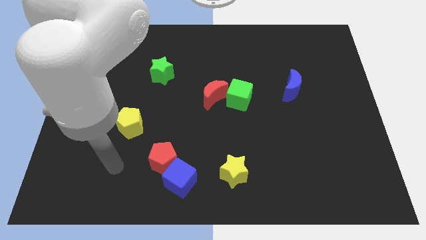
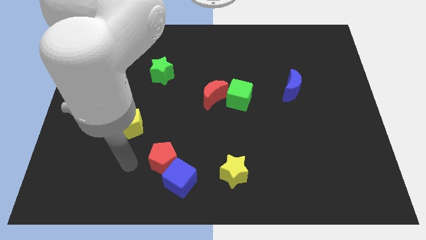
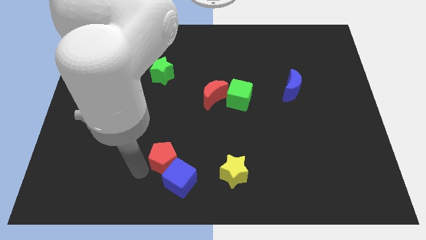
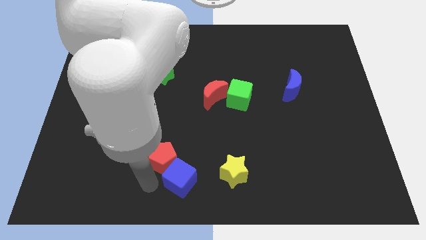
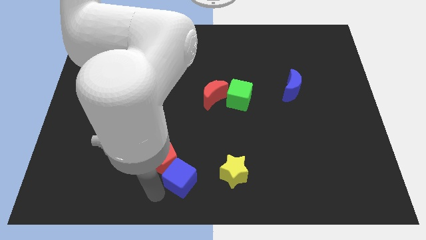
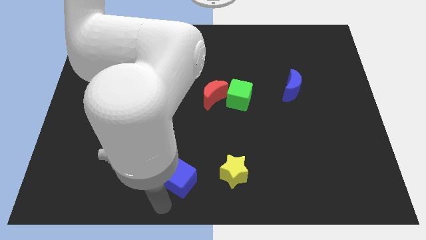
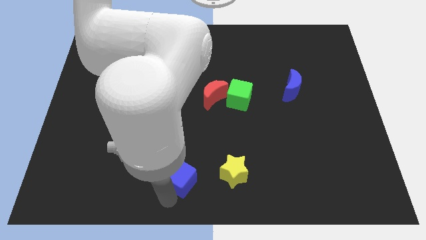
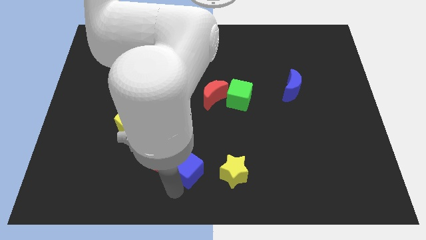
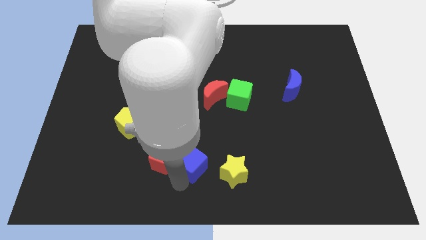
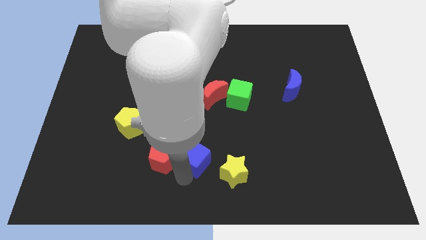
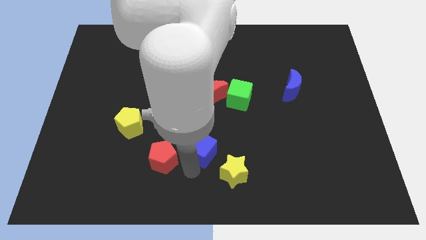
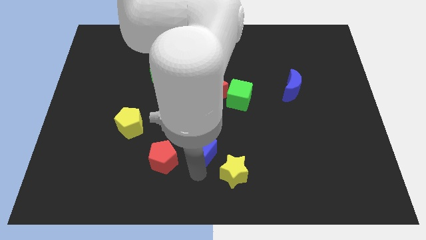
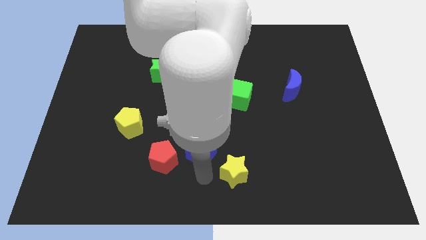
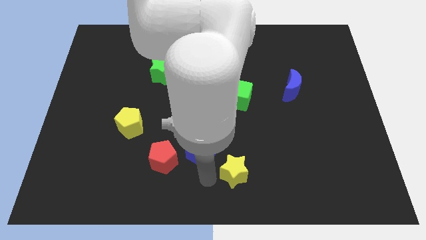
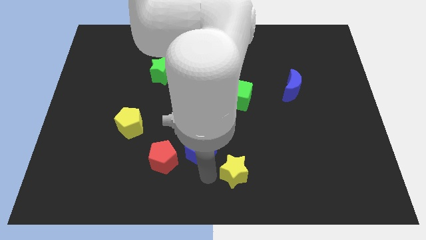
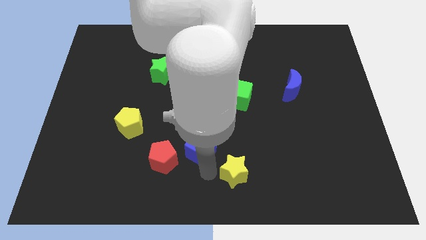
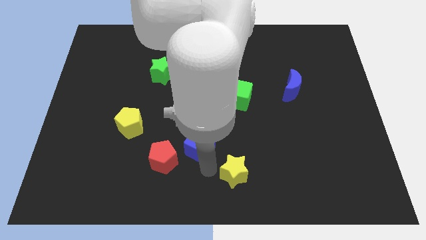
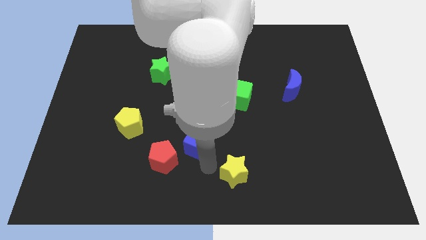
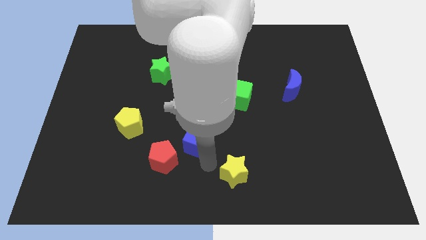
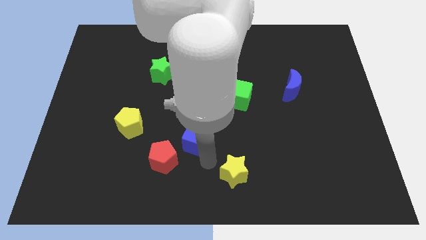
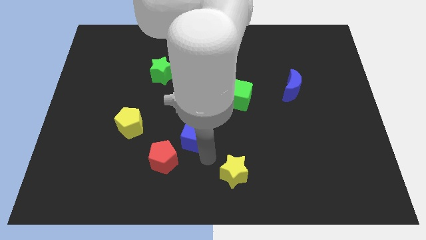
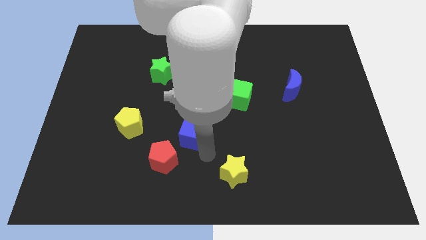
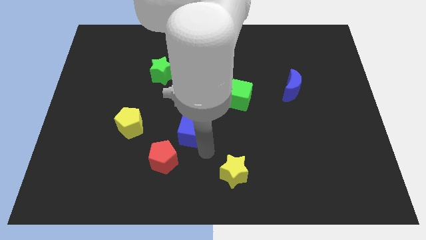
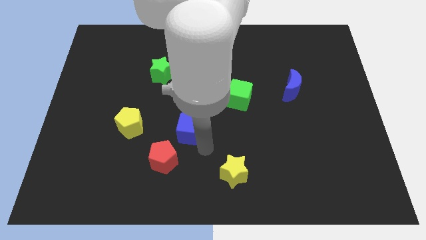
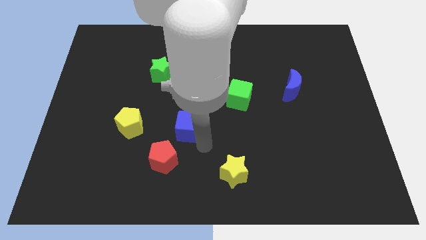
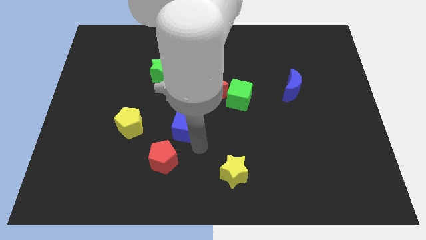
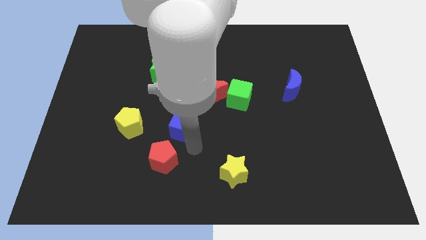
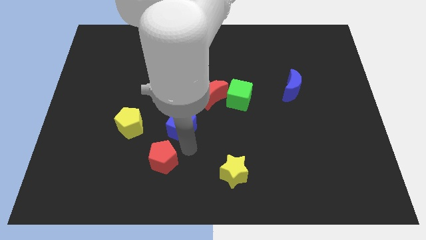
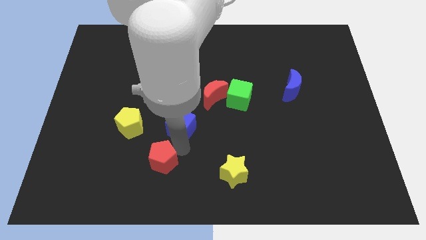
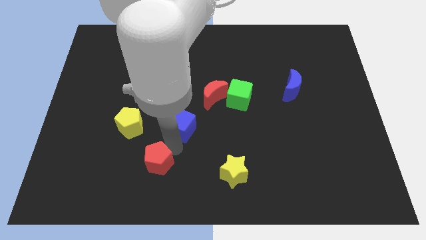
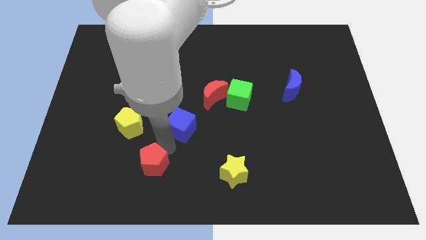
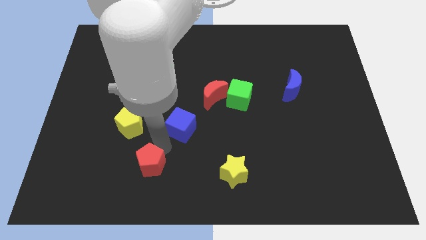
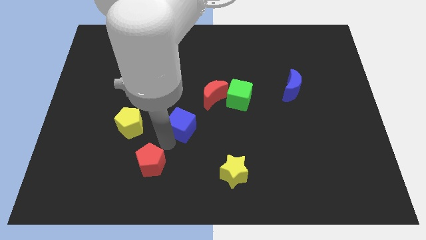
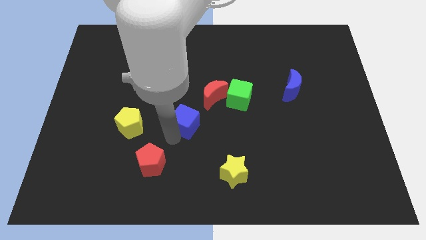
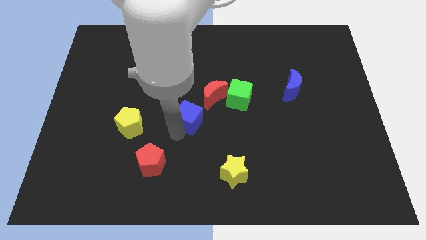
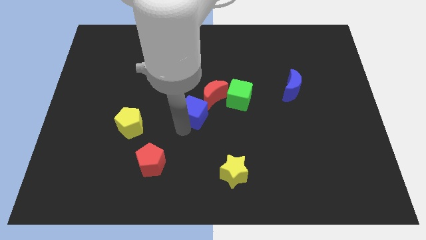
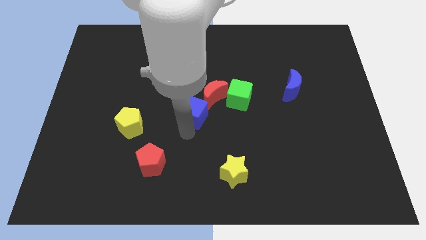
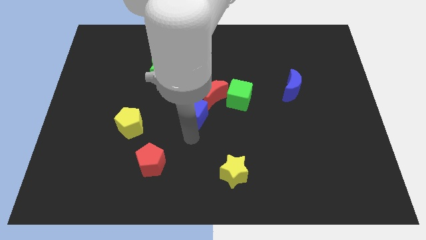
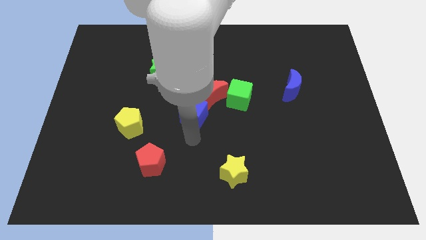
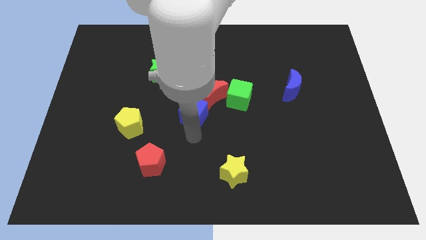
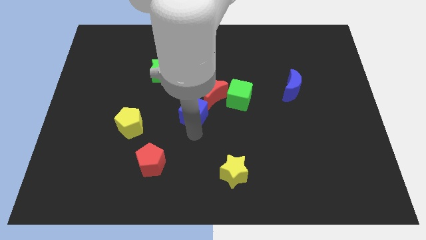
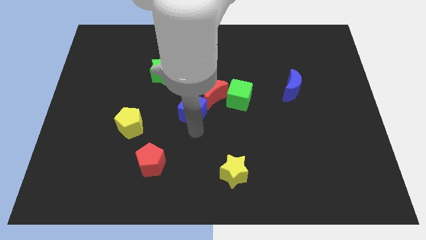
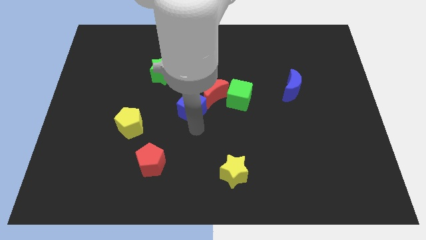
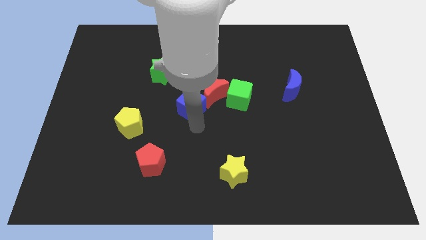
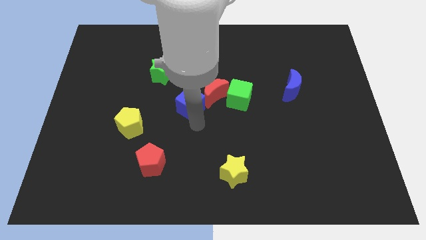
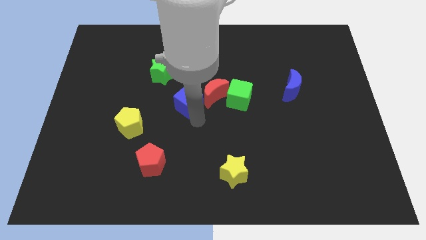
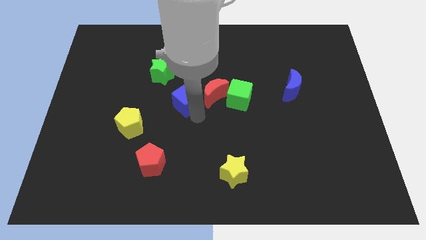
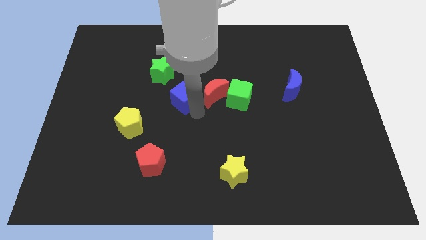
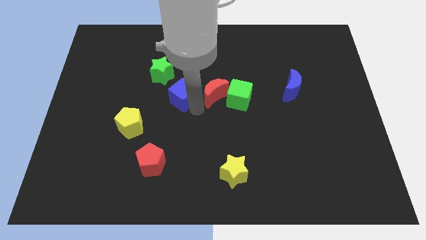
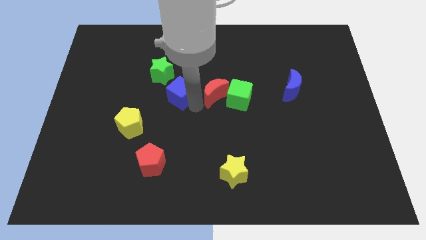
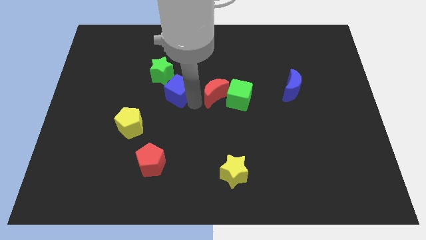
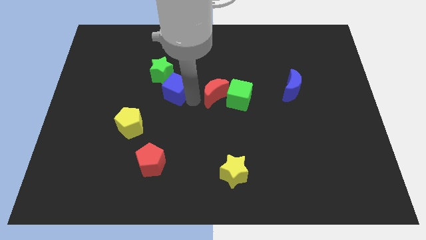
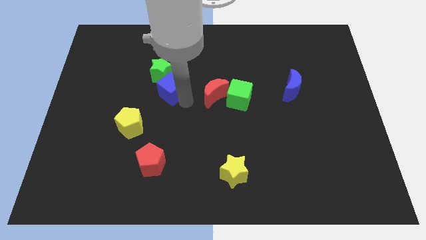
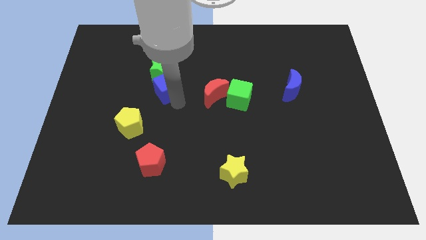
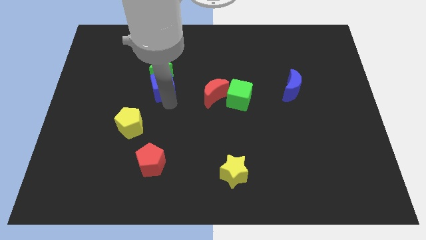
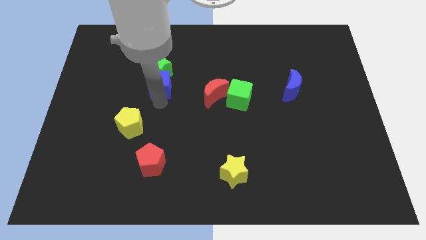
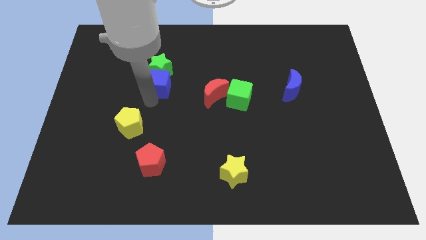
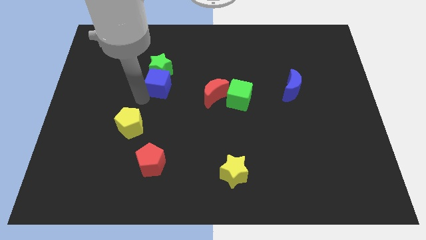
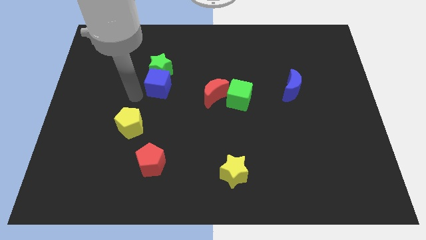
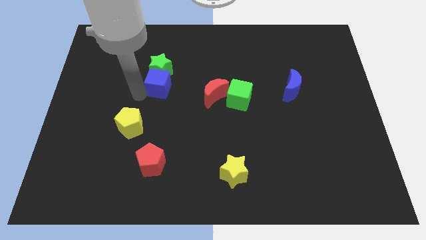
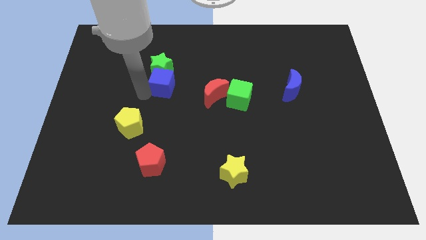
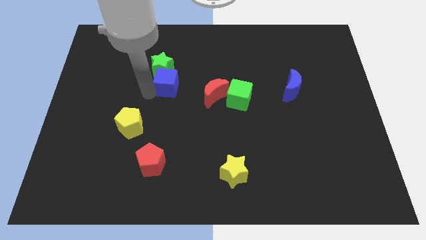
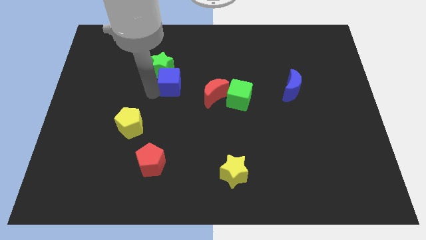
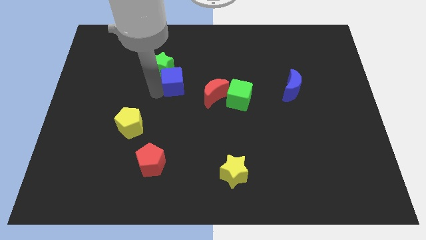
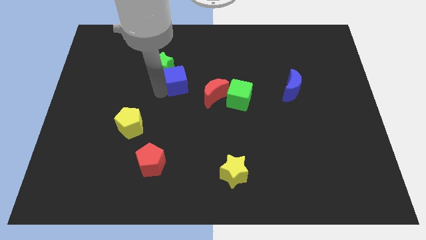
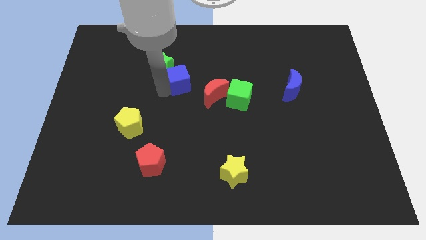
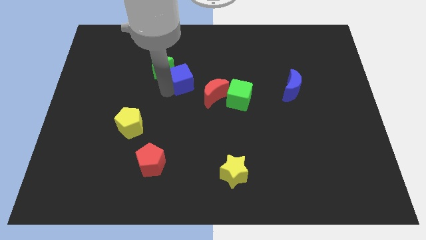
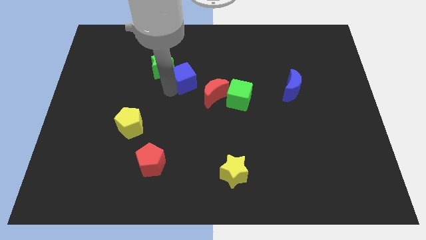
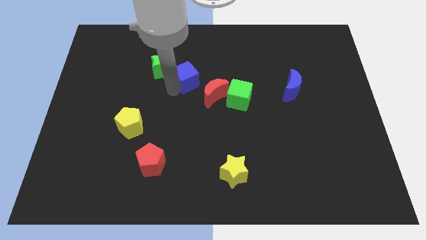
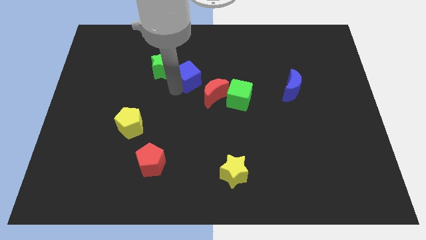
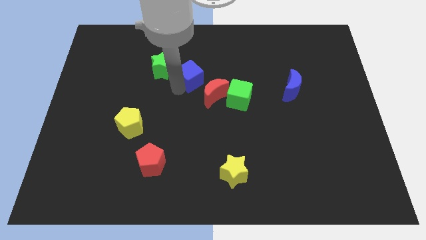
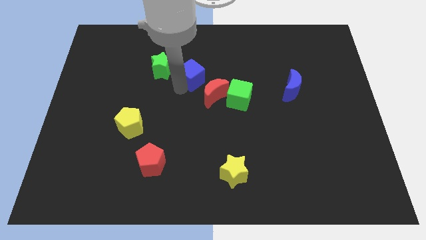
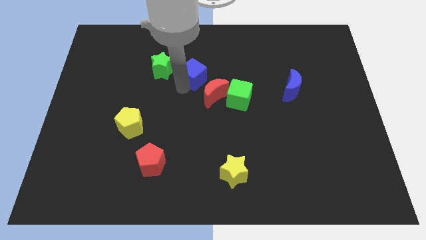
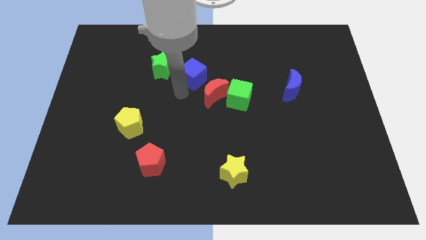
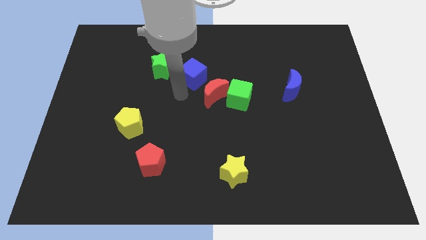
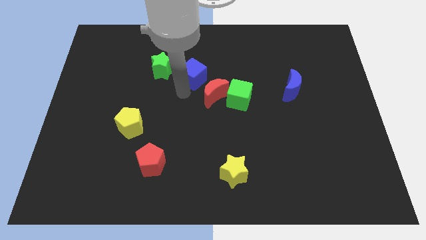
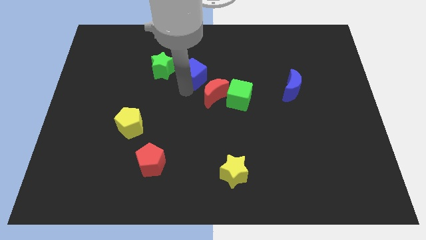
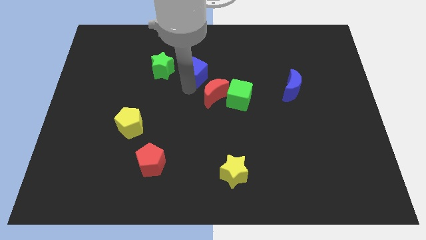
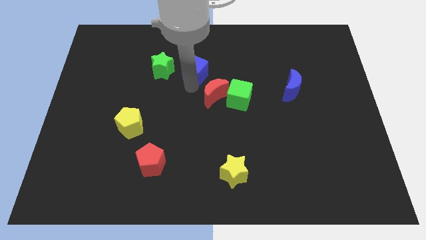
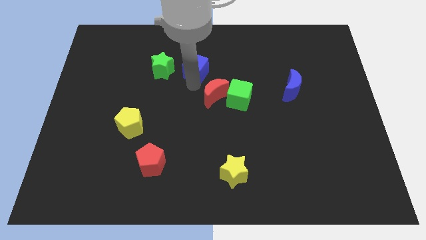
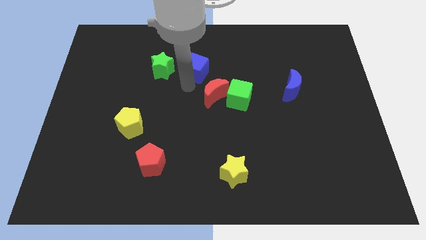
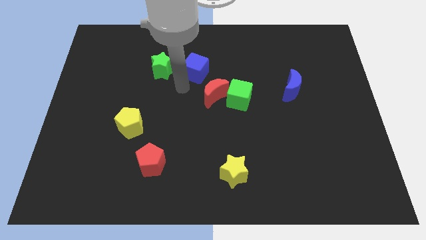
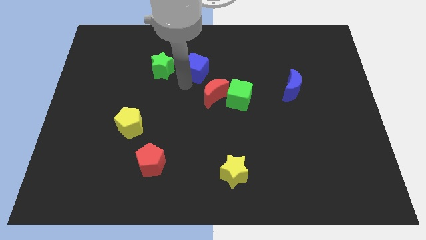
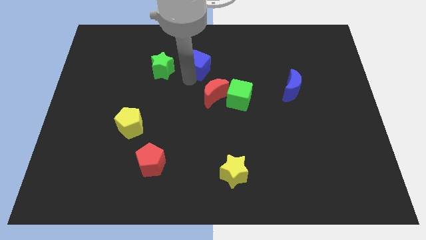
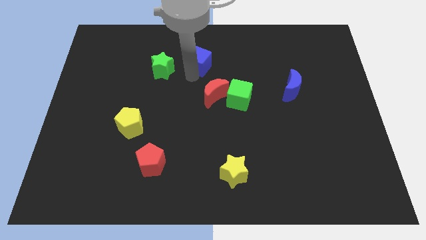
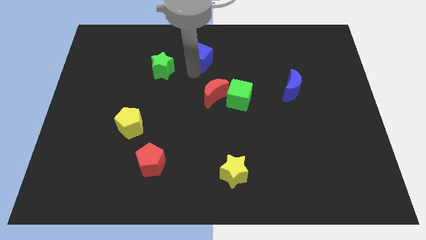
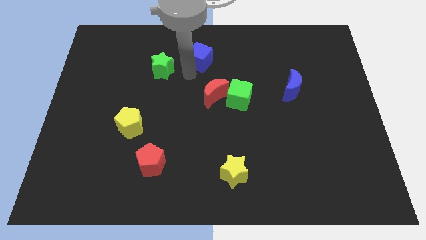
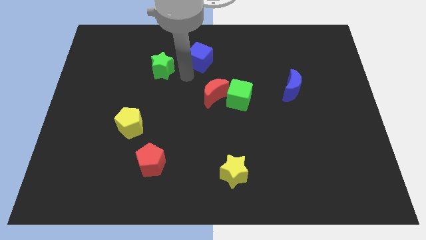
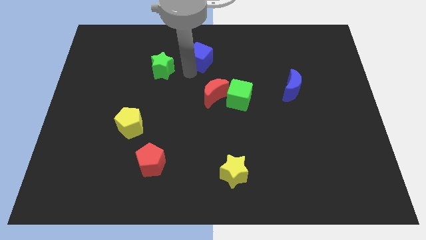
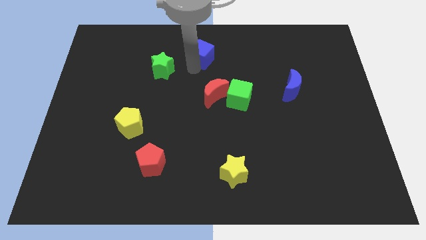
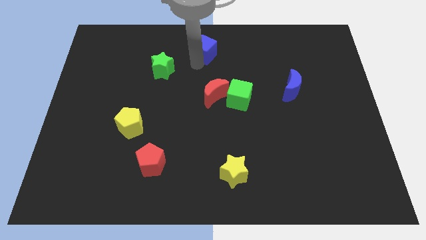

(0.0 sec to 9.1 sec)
move the blue cube to the top
